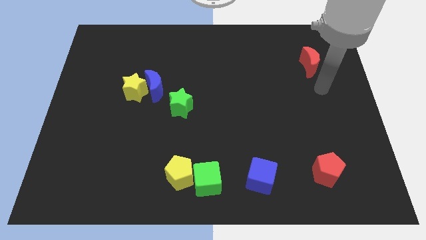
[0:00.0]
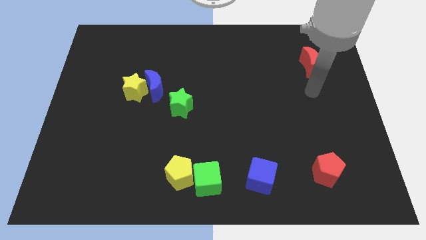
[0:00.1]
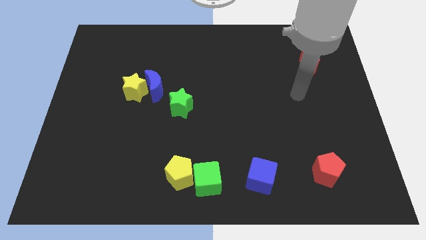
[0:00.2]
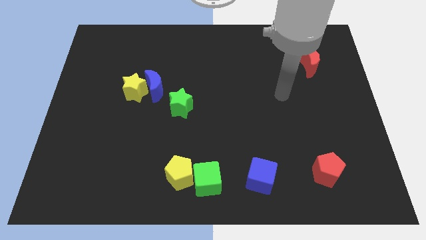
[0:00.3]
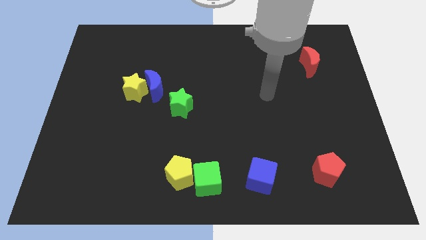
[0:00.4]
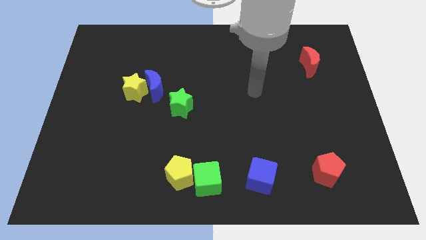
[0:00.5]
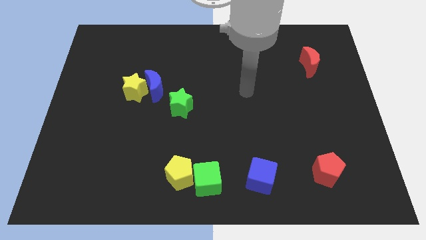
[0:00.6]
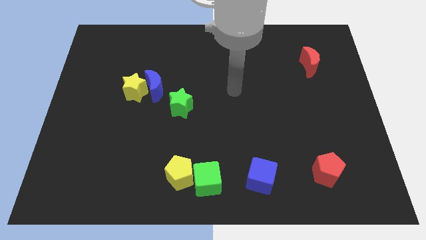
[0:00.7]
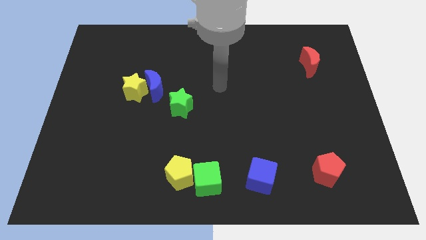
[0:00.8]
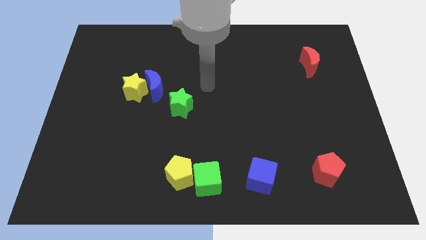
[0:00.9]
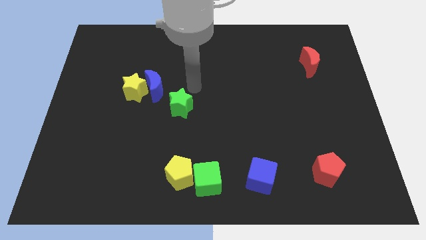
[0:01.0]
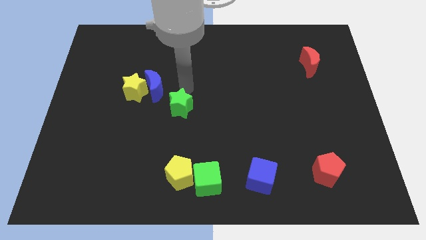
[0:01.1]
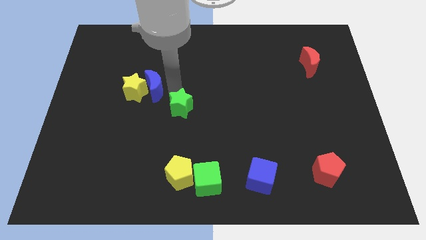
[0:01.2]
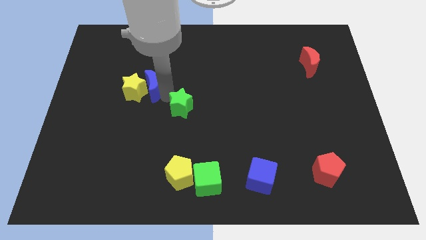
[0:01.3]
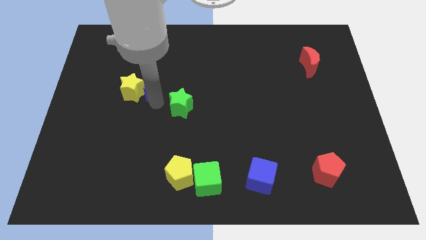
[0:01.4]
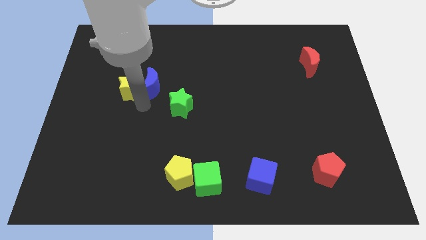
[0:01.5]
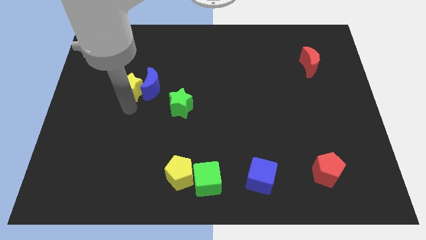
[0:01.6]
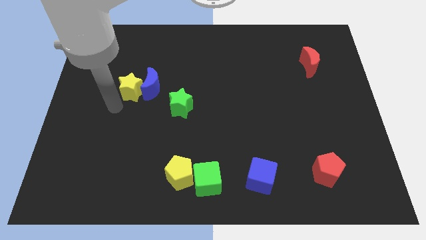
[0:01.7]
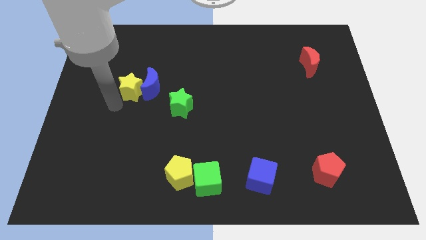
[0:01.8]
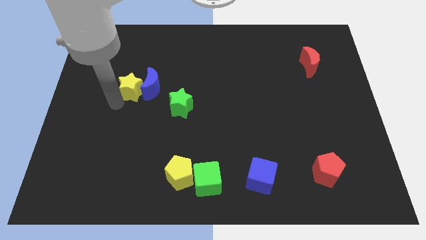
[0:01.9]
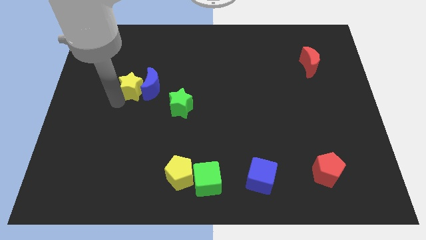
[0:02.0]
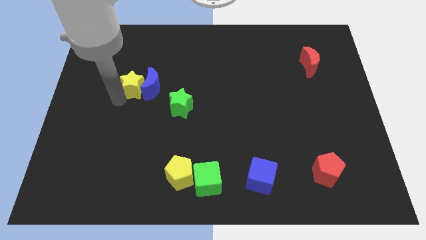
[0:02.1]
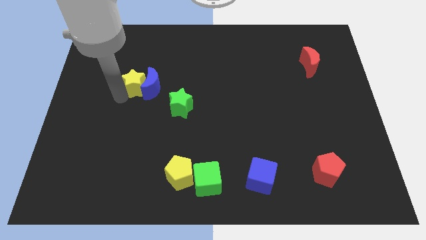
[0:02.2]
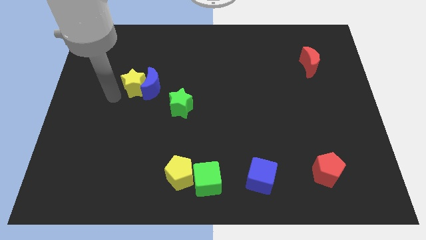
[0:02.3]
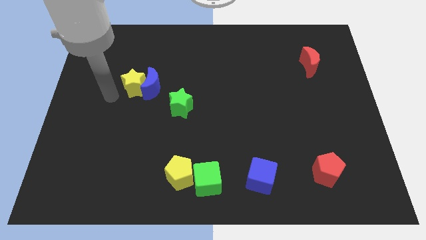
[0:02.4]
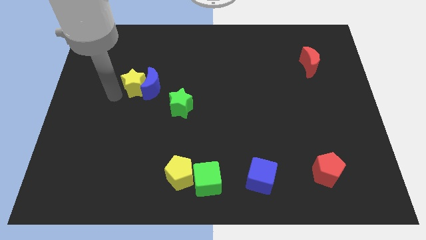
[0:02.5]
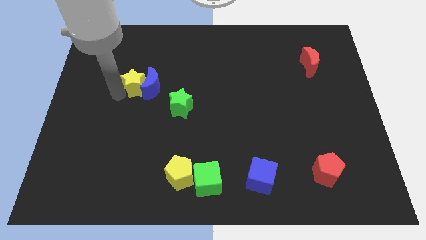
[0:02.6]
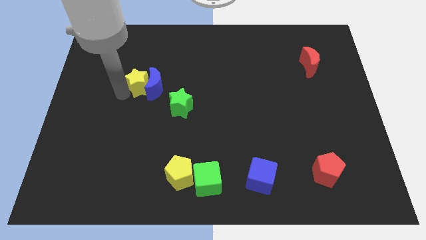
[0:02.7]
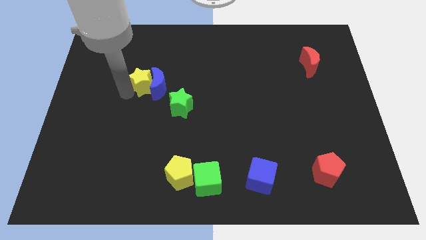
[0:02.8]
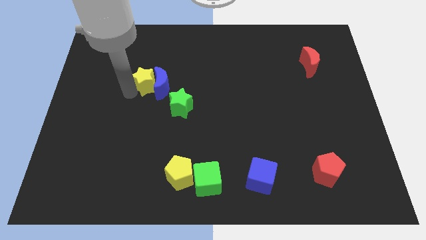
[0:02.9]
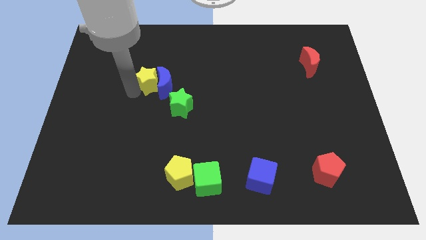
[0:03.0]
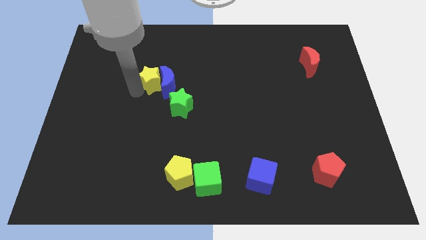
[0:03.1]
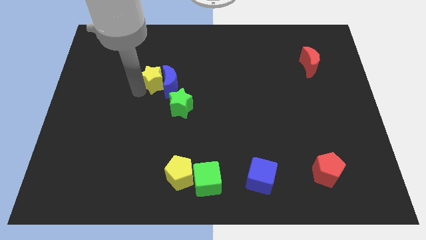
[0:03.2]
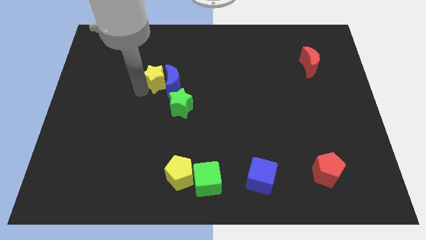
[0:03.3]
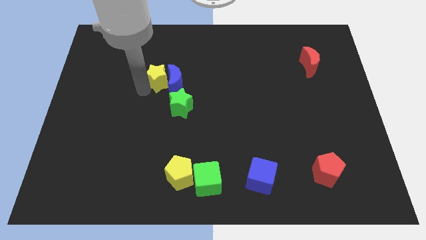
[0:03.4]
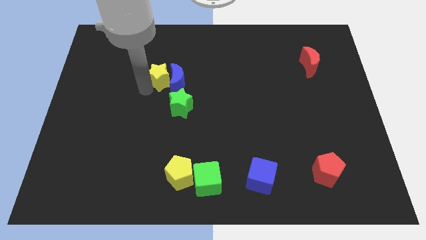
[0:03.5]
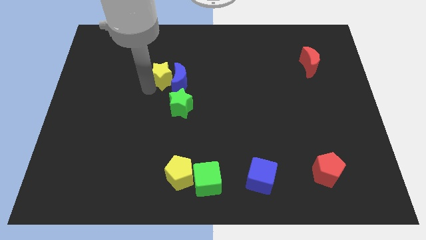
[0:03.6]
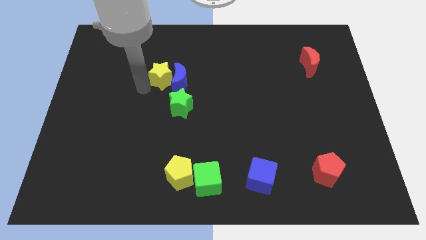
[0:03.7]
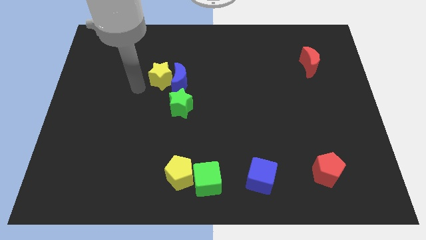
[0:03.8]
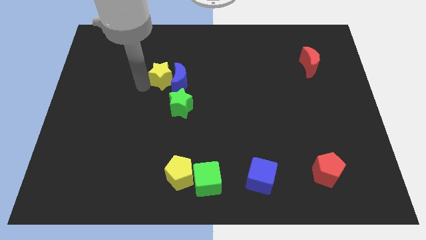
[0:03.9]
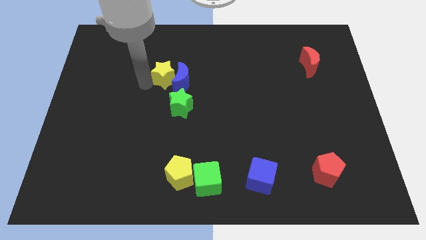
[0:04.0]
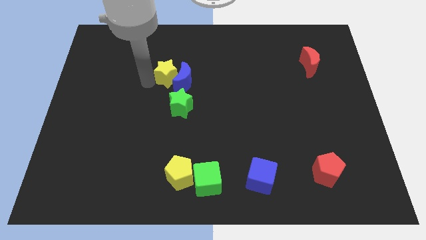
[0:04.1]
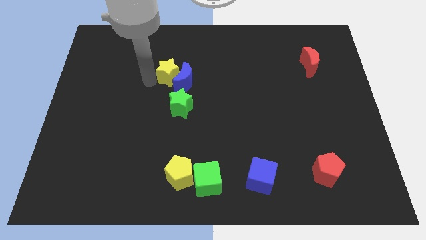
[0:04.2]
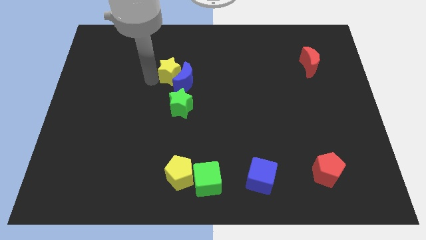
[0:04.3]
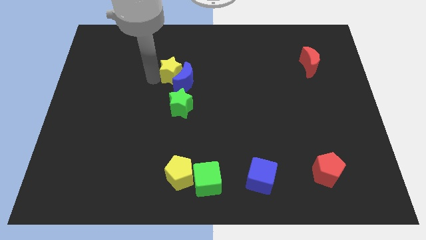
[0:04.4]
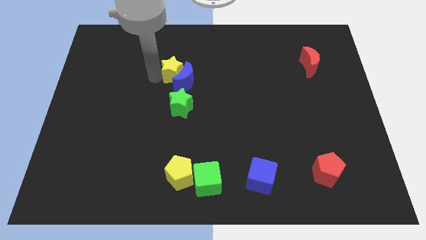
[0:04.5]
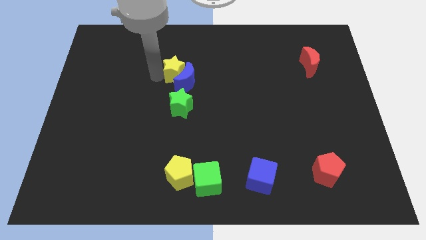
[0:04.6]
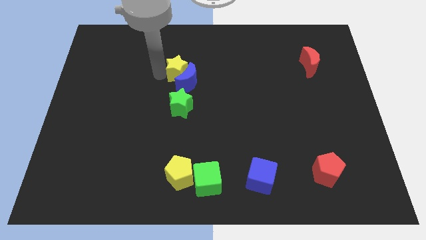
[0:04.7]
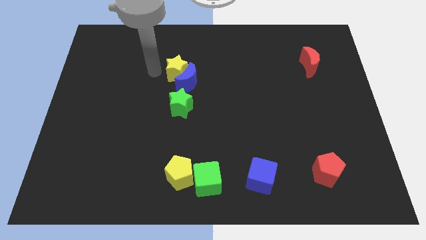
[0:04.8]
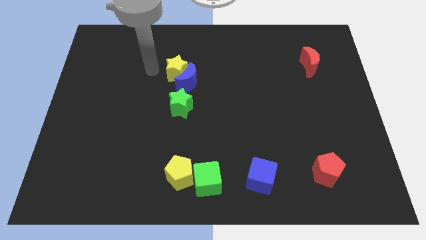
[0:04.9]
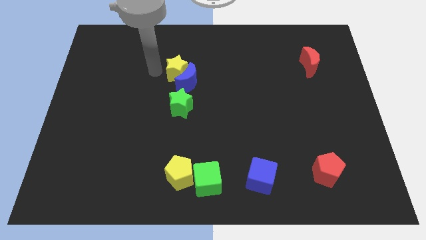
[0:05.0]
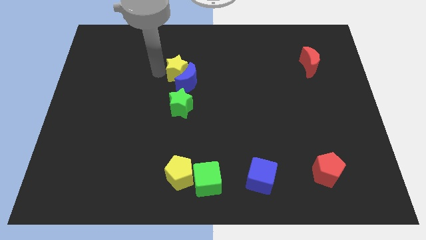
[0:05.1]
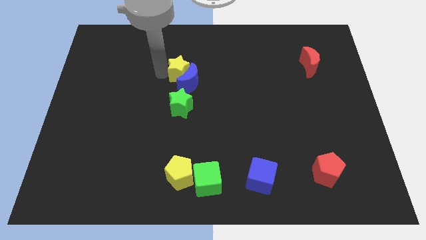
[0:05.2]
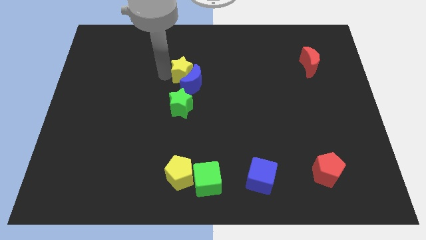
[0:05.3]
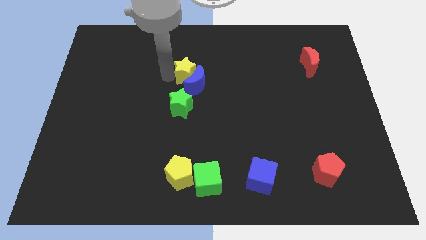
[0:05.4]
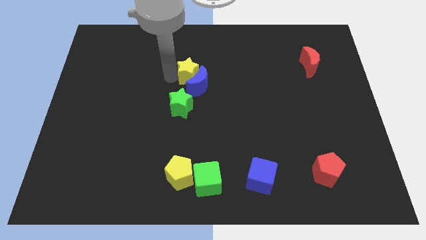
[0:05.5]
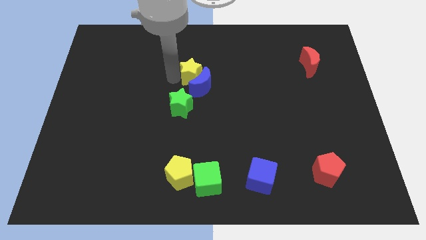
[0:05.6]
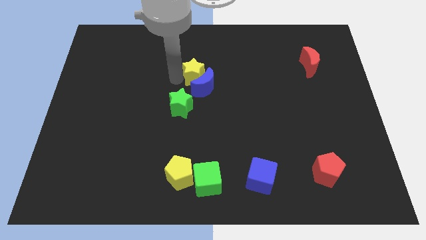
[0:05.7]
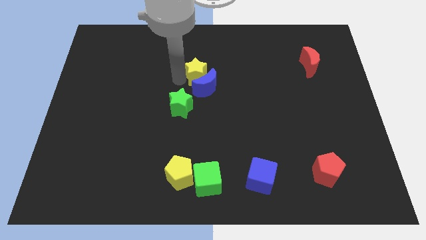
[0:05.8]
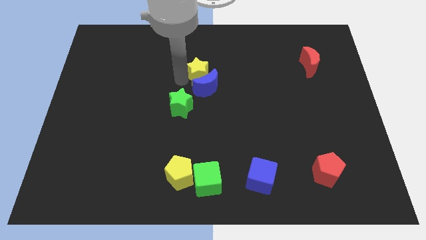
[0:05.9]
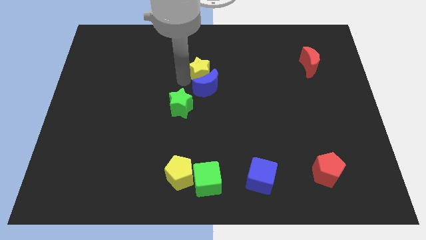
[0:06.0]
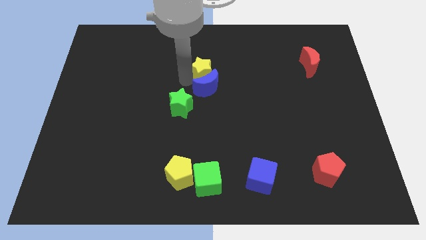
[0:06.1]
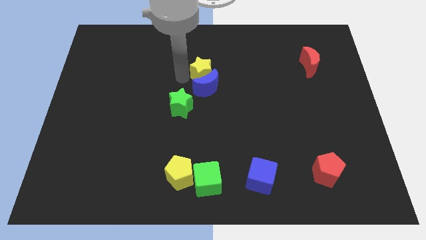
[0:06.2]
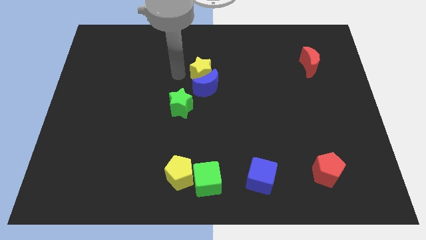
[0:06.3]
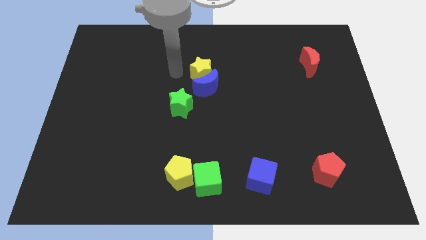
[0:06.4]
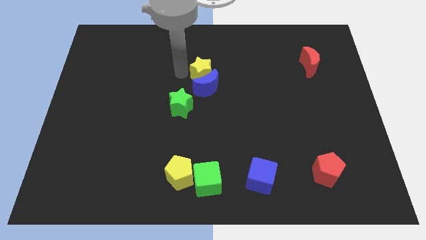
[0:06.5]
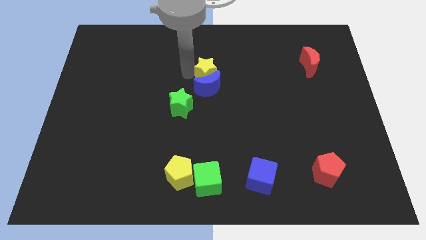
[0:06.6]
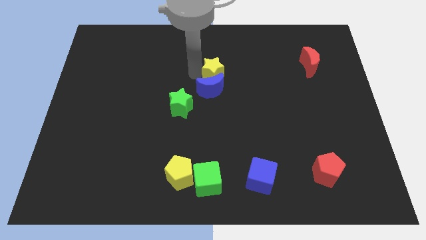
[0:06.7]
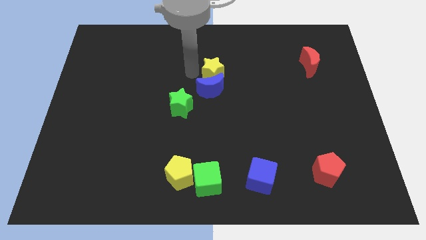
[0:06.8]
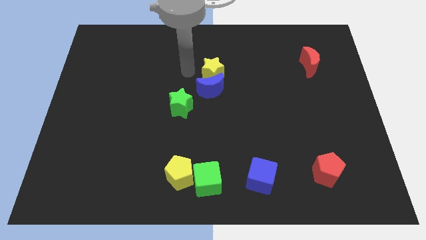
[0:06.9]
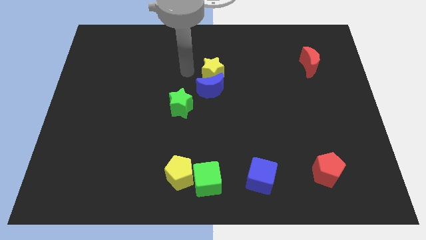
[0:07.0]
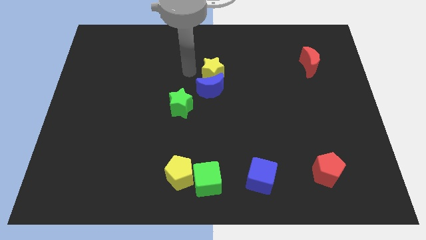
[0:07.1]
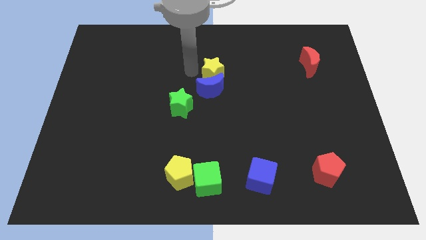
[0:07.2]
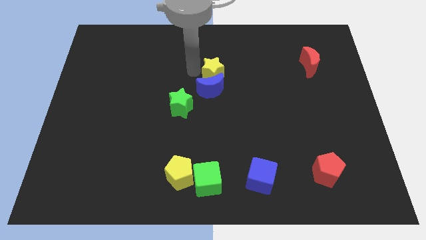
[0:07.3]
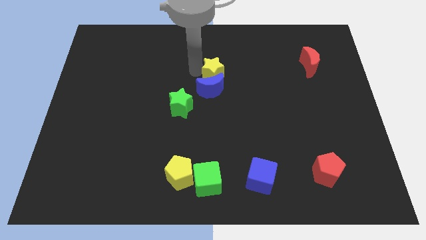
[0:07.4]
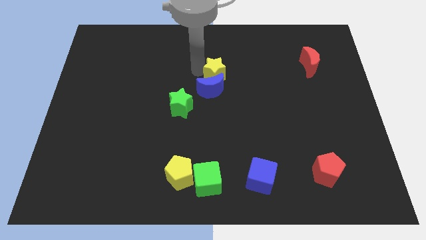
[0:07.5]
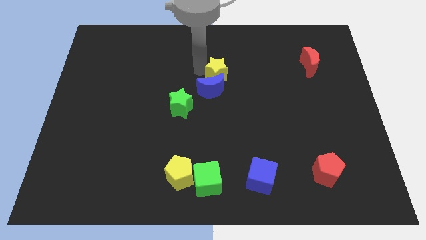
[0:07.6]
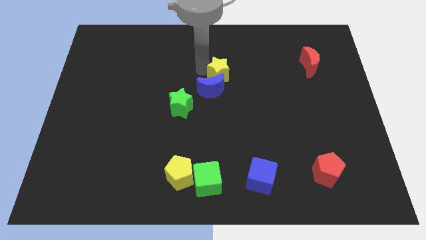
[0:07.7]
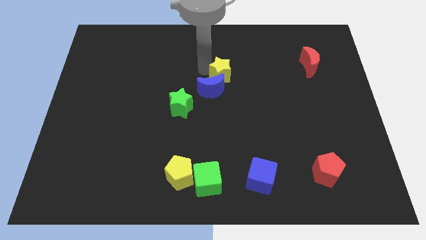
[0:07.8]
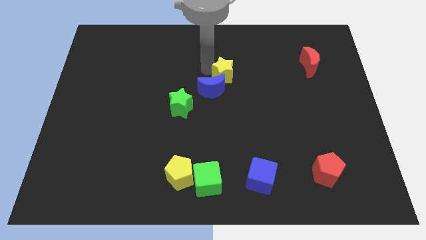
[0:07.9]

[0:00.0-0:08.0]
slide the yellow star to the right

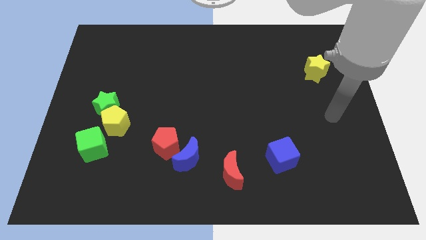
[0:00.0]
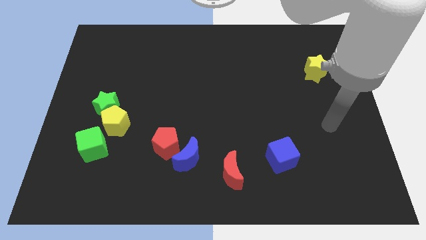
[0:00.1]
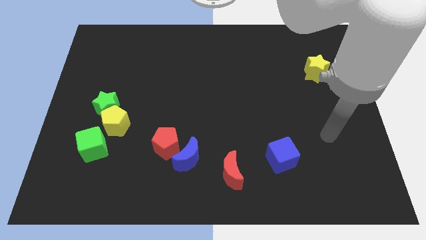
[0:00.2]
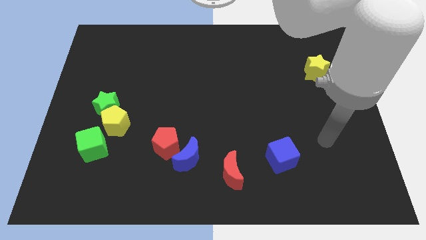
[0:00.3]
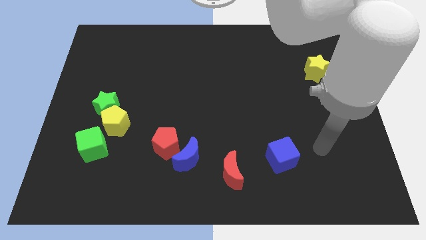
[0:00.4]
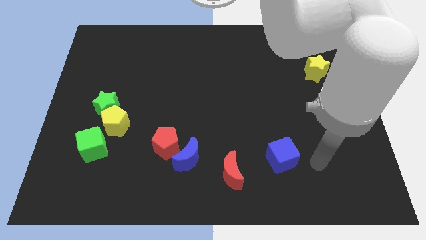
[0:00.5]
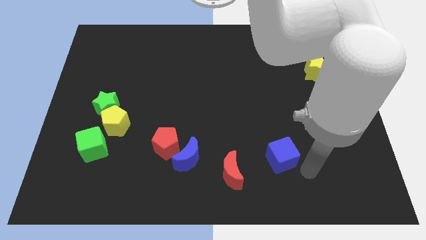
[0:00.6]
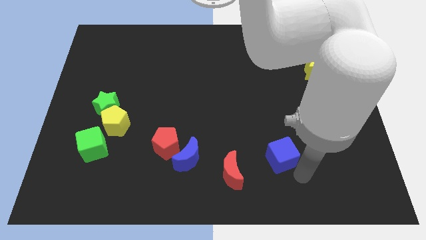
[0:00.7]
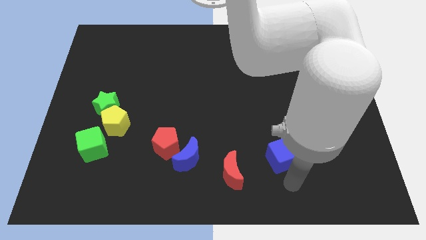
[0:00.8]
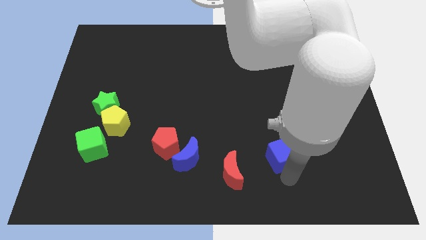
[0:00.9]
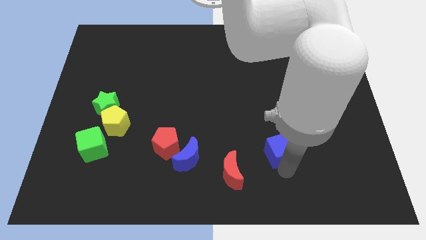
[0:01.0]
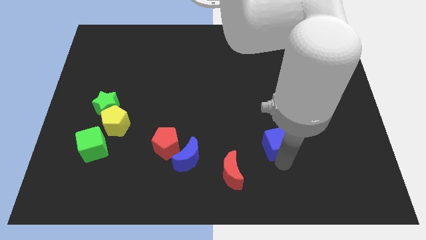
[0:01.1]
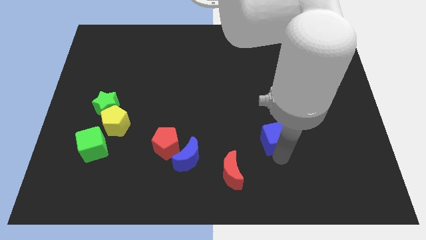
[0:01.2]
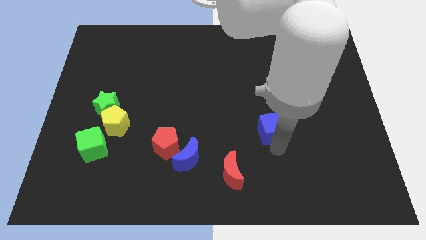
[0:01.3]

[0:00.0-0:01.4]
slightly push the blue cube up
